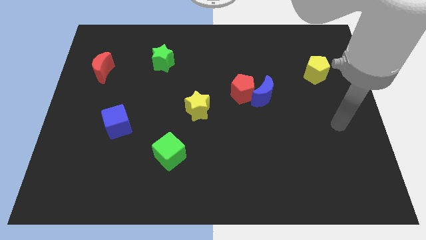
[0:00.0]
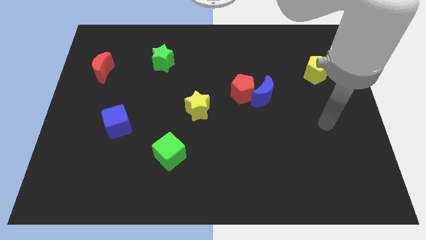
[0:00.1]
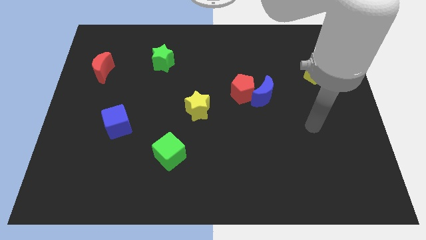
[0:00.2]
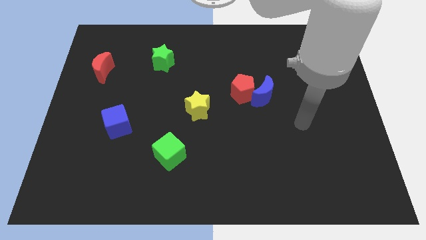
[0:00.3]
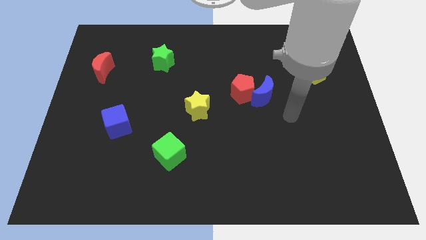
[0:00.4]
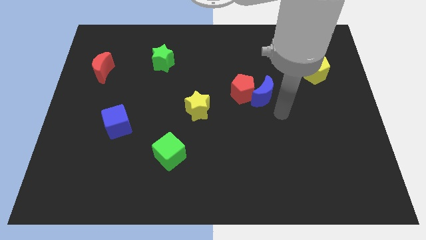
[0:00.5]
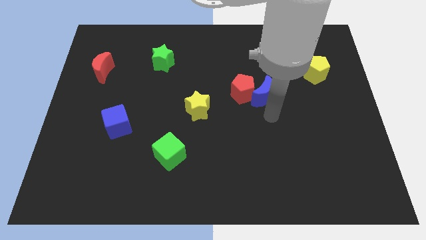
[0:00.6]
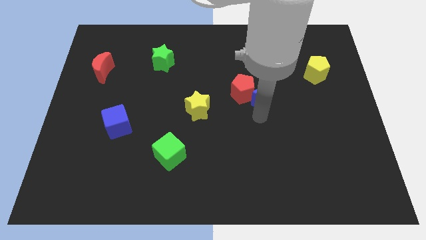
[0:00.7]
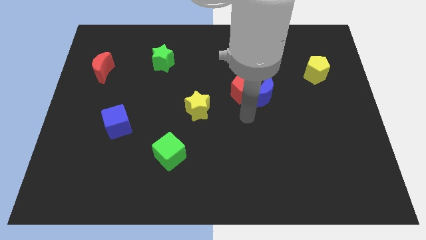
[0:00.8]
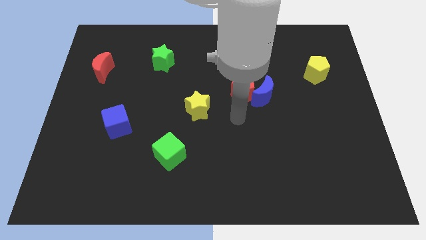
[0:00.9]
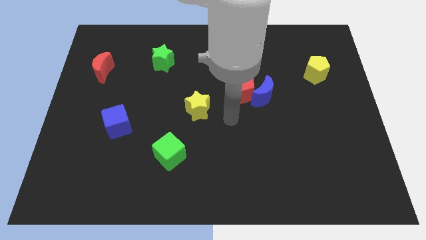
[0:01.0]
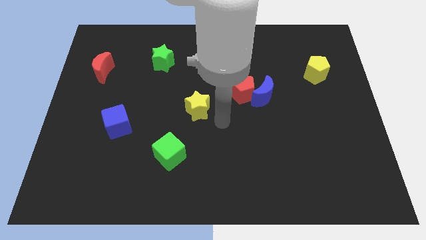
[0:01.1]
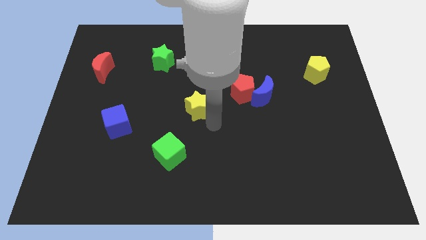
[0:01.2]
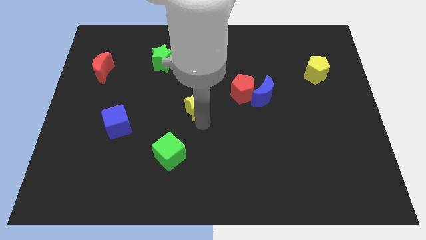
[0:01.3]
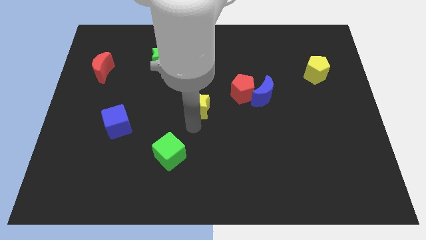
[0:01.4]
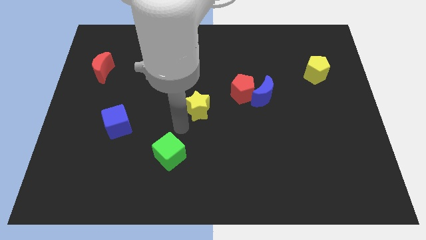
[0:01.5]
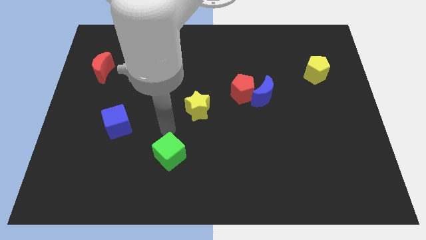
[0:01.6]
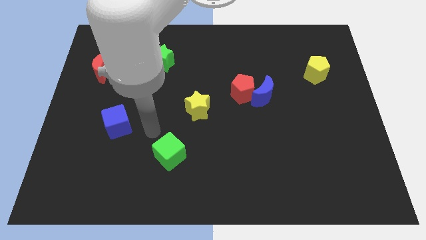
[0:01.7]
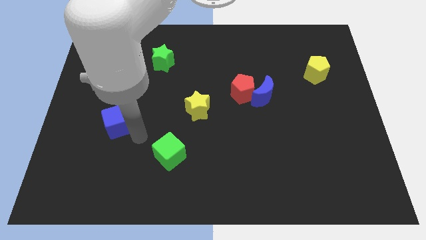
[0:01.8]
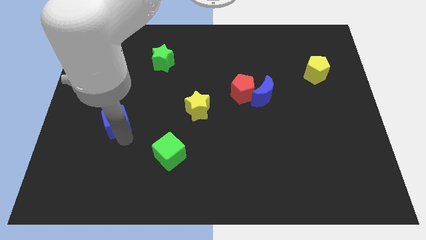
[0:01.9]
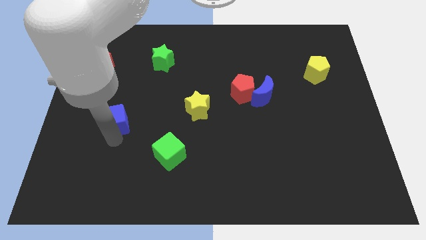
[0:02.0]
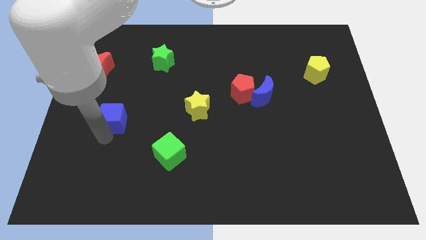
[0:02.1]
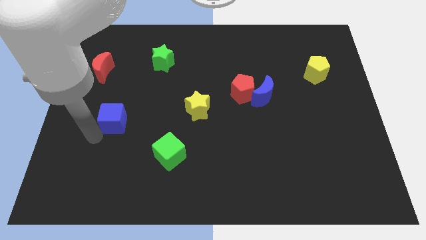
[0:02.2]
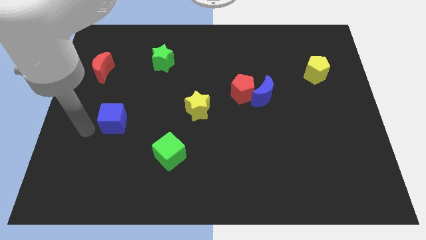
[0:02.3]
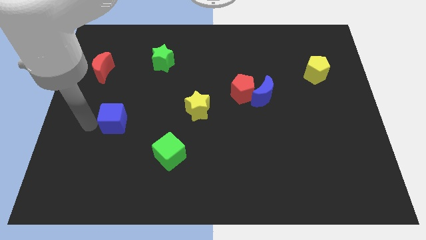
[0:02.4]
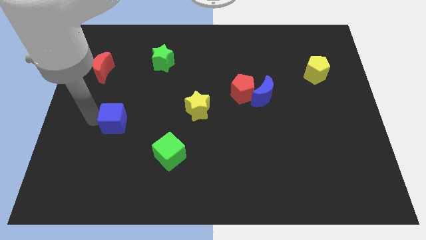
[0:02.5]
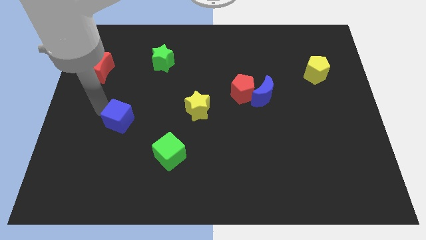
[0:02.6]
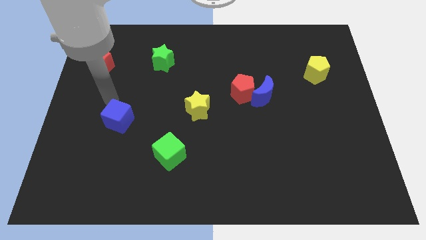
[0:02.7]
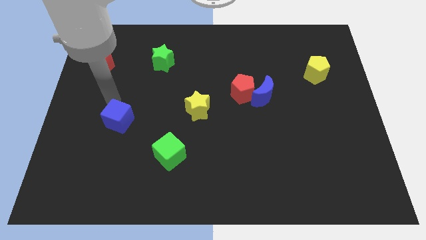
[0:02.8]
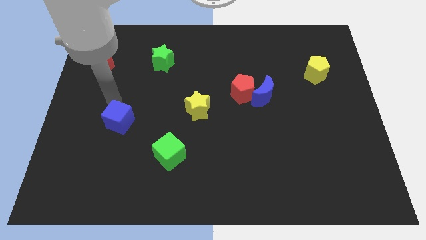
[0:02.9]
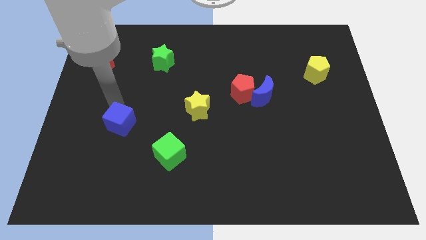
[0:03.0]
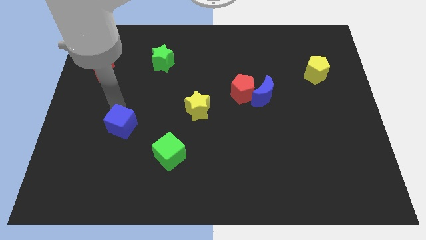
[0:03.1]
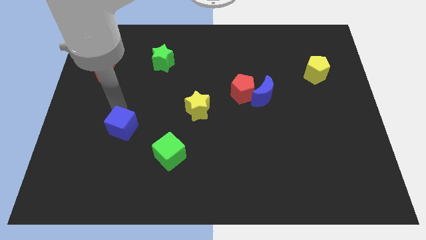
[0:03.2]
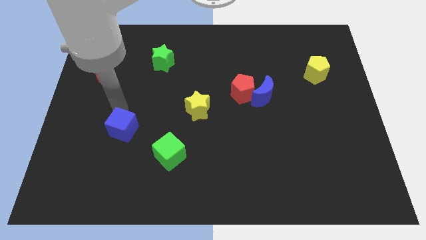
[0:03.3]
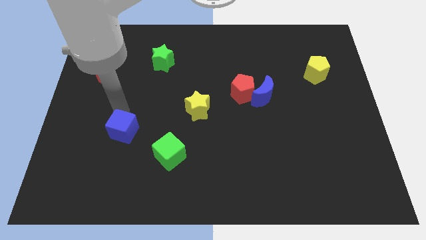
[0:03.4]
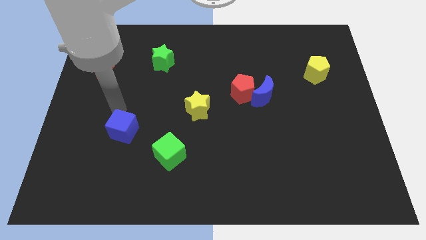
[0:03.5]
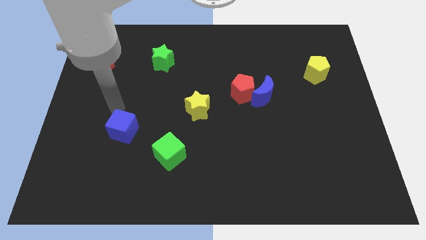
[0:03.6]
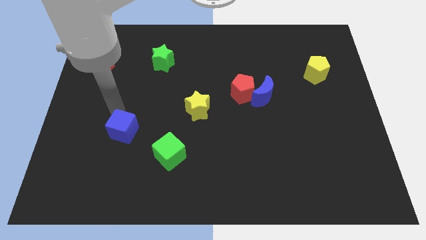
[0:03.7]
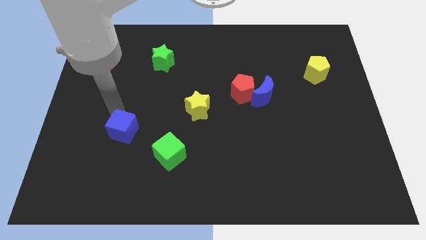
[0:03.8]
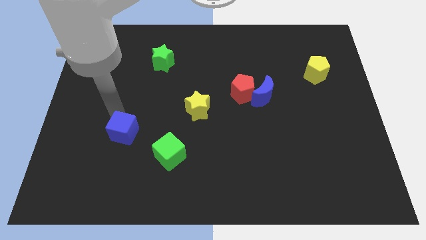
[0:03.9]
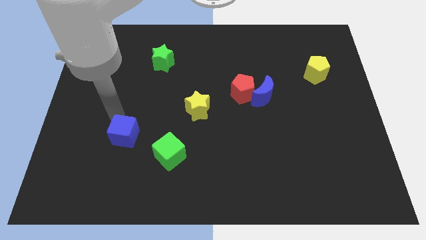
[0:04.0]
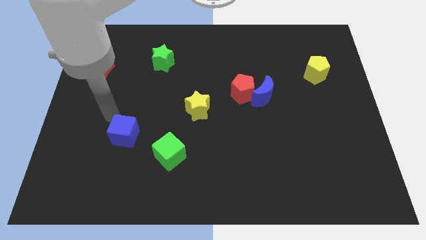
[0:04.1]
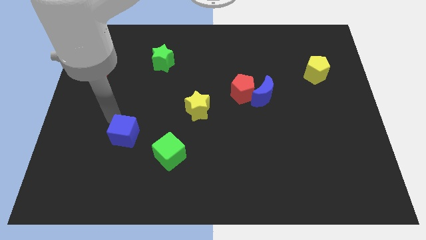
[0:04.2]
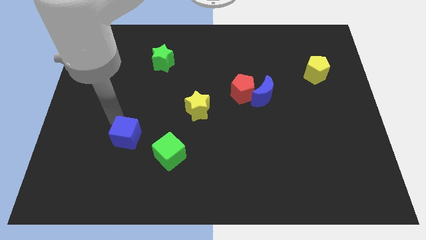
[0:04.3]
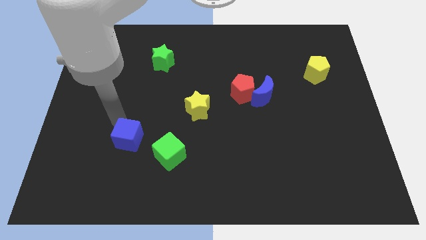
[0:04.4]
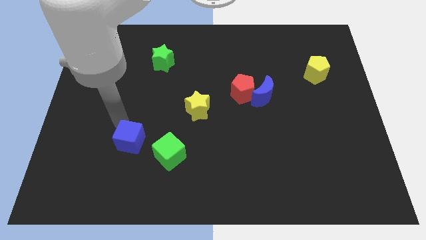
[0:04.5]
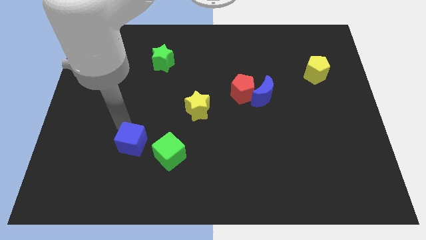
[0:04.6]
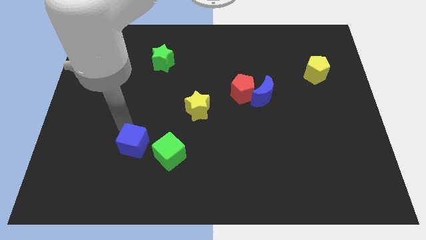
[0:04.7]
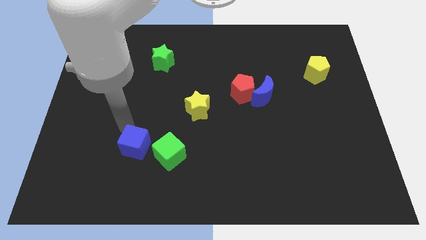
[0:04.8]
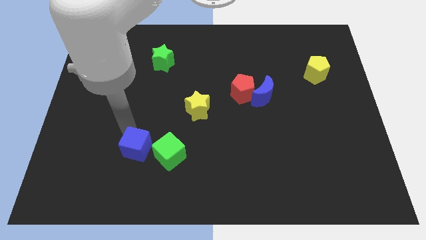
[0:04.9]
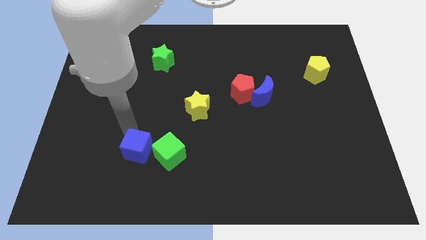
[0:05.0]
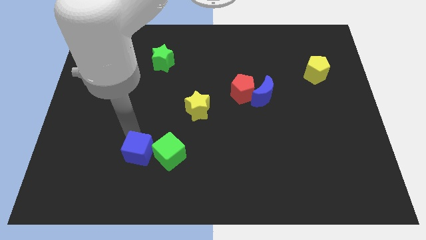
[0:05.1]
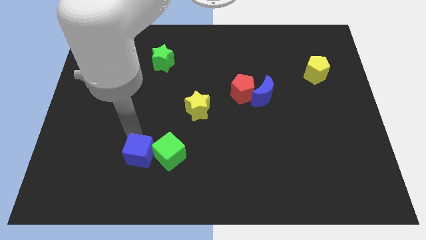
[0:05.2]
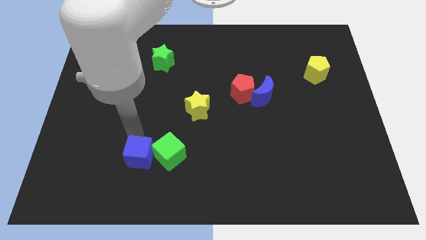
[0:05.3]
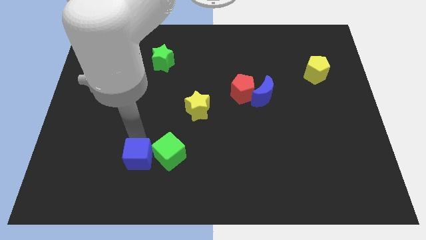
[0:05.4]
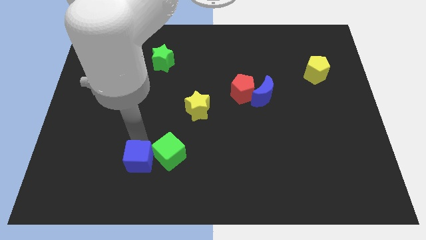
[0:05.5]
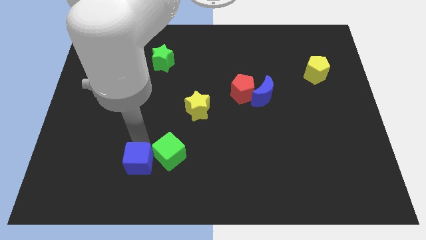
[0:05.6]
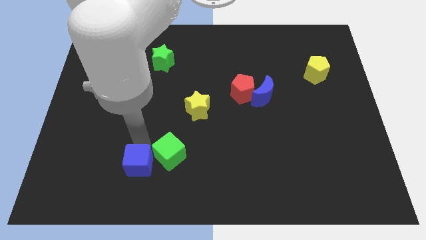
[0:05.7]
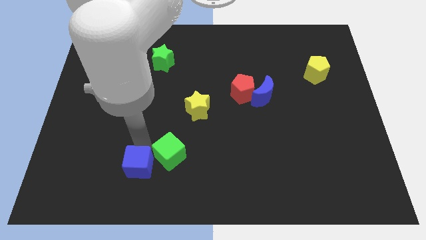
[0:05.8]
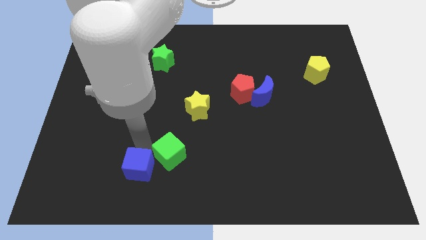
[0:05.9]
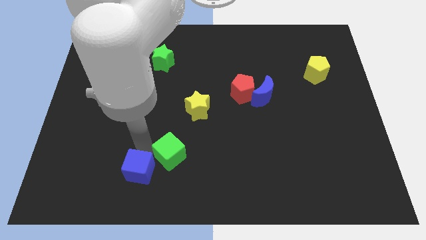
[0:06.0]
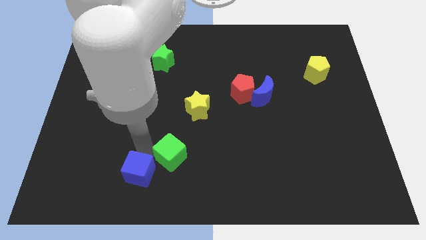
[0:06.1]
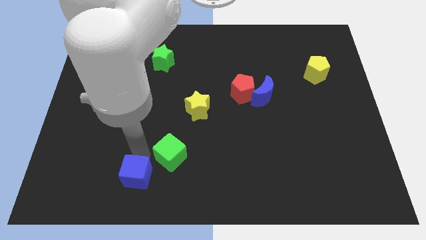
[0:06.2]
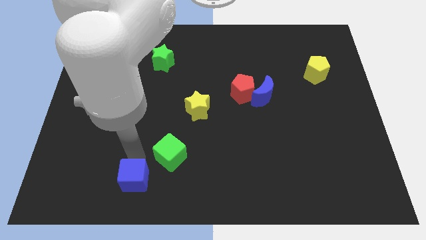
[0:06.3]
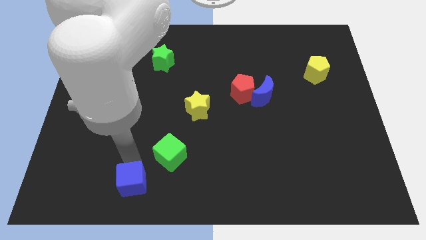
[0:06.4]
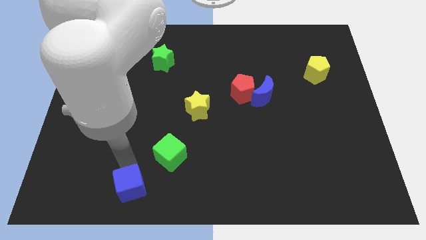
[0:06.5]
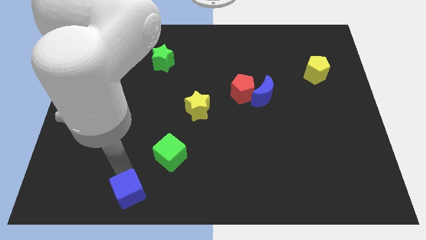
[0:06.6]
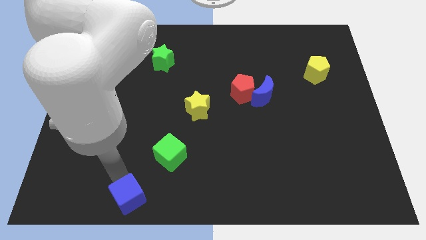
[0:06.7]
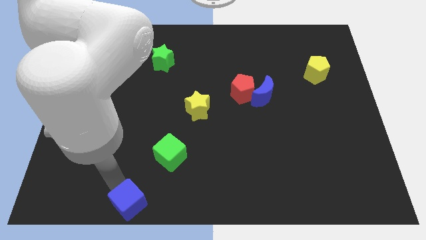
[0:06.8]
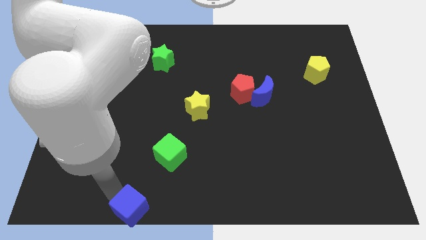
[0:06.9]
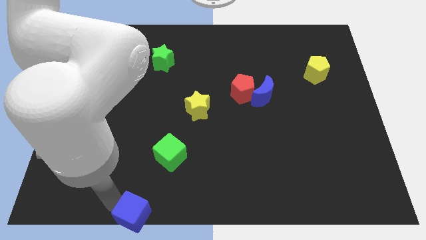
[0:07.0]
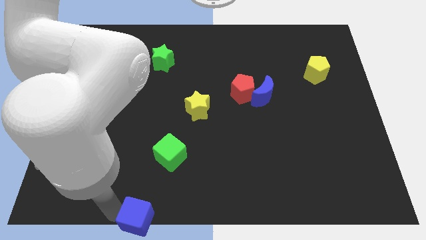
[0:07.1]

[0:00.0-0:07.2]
move the blue cube to the bottom side
